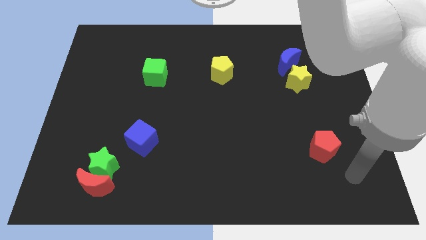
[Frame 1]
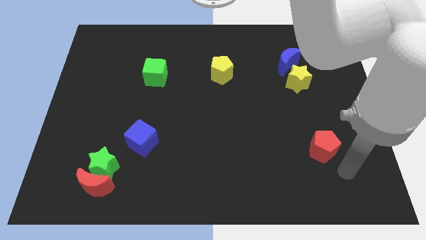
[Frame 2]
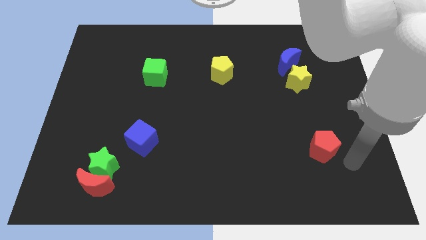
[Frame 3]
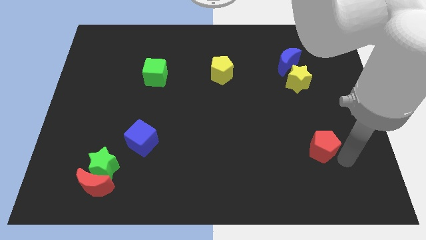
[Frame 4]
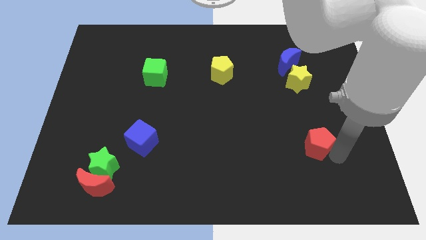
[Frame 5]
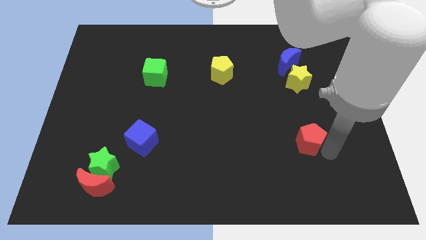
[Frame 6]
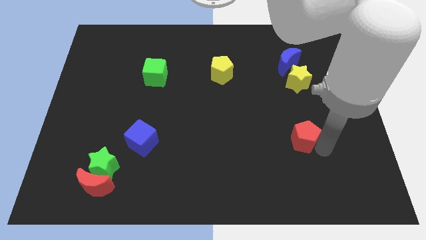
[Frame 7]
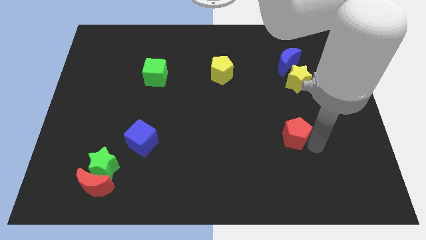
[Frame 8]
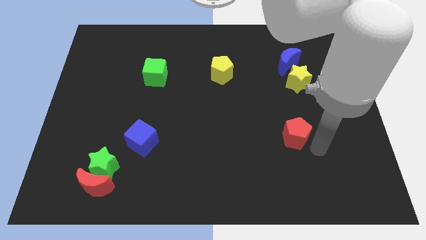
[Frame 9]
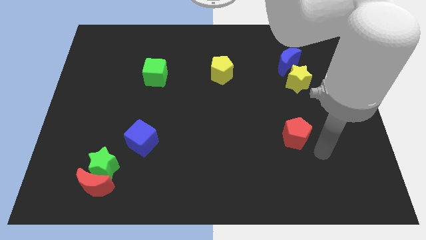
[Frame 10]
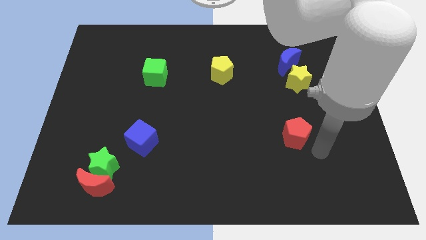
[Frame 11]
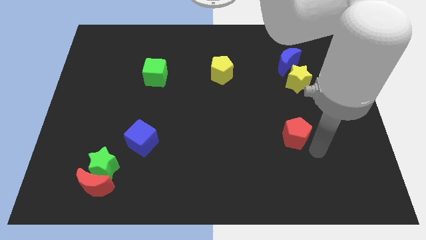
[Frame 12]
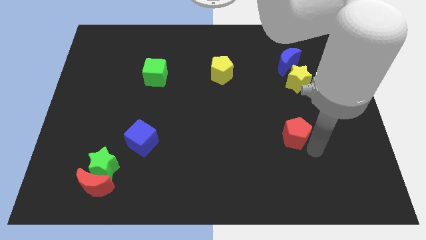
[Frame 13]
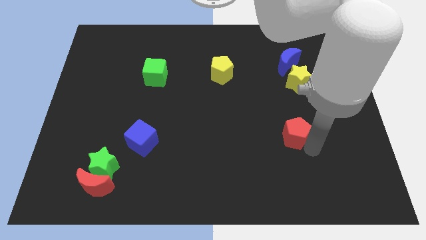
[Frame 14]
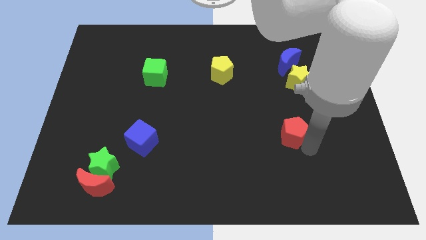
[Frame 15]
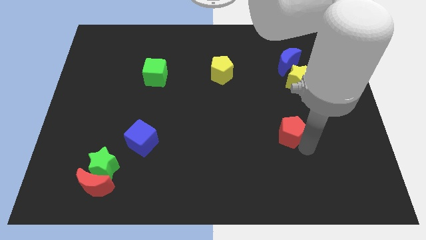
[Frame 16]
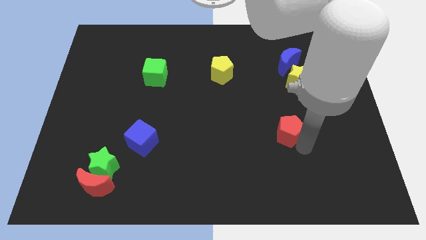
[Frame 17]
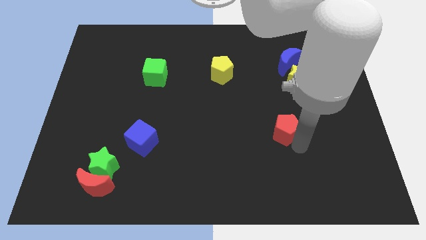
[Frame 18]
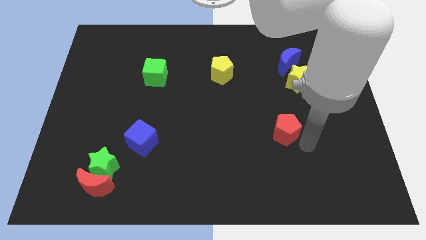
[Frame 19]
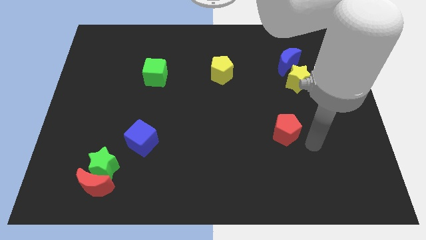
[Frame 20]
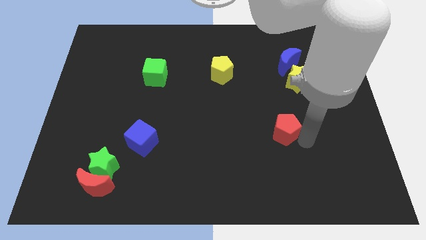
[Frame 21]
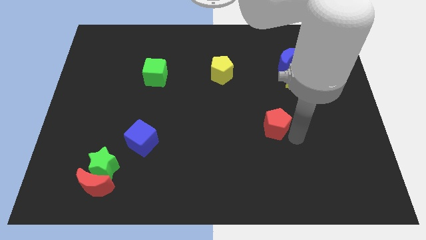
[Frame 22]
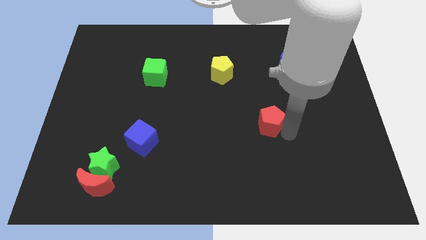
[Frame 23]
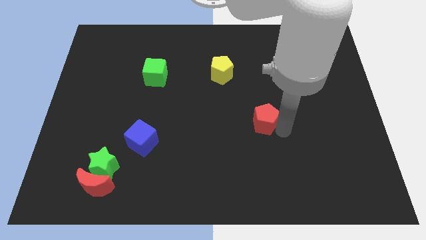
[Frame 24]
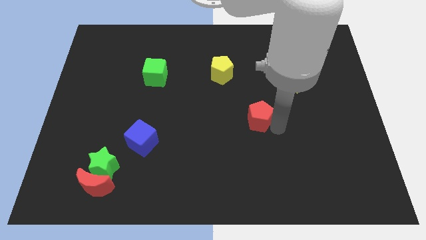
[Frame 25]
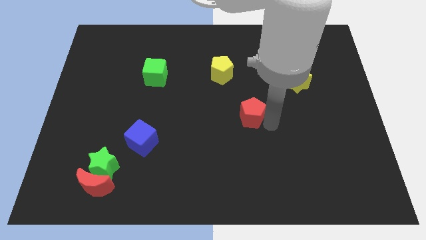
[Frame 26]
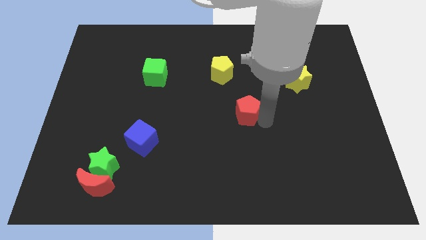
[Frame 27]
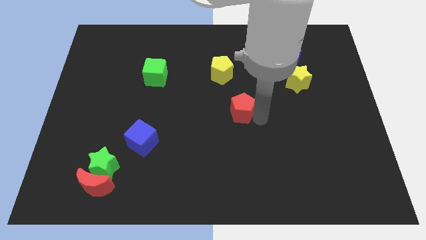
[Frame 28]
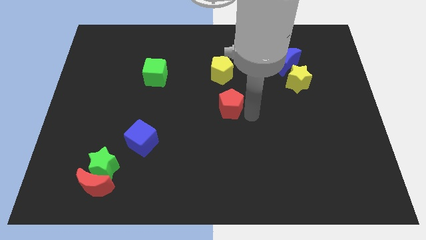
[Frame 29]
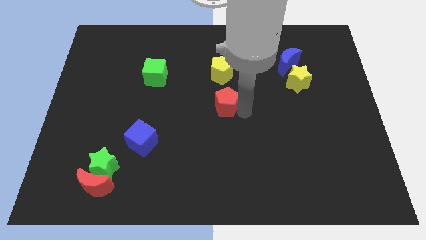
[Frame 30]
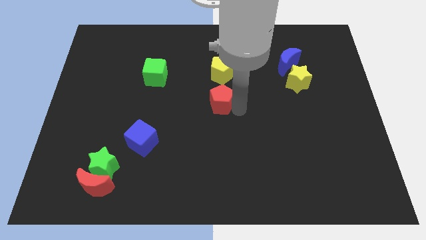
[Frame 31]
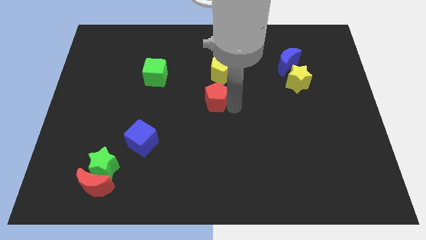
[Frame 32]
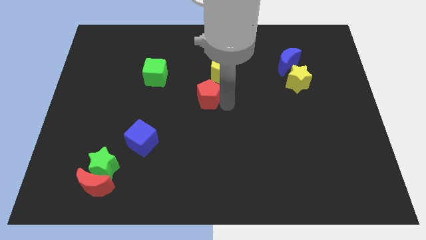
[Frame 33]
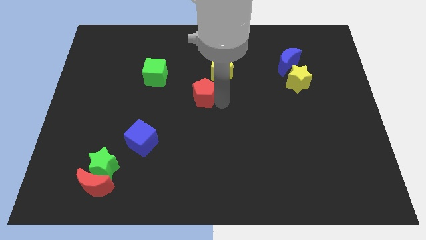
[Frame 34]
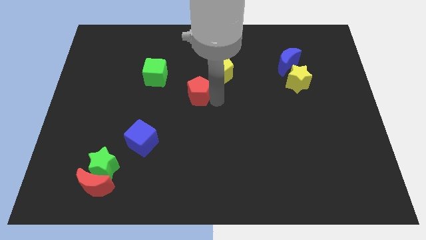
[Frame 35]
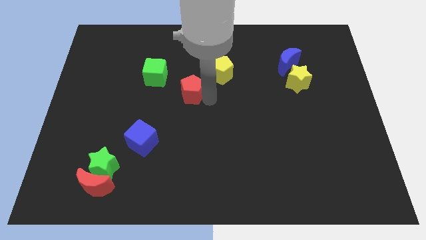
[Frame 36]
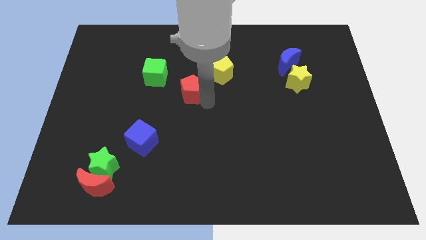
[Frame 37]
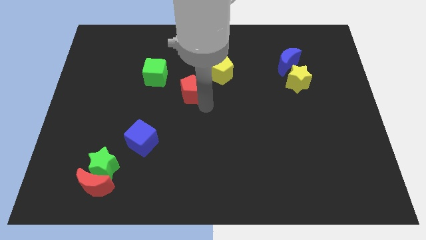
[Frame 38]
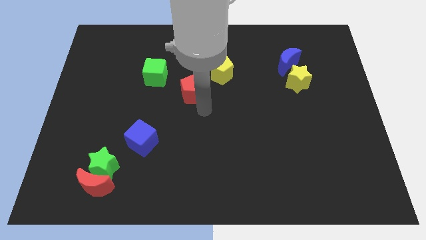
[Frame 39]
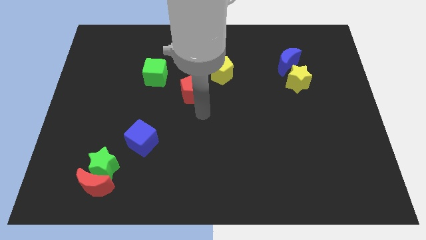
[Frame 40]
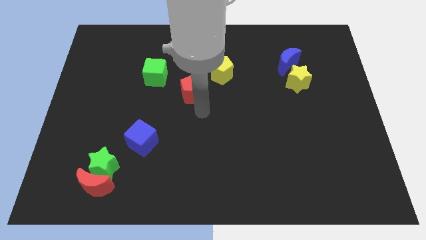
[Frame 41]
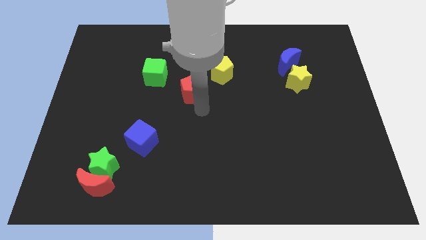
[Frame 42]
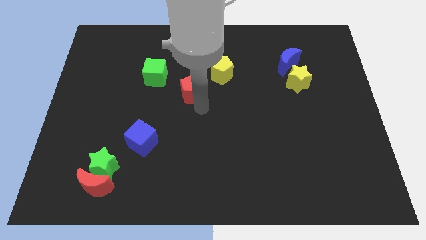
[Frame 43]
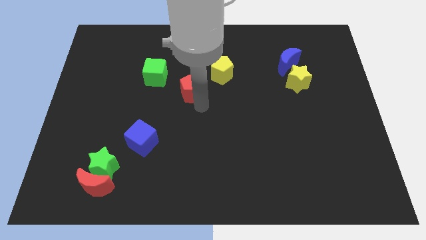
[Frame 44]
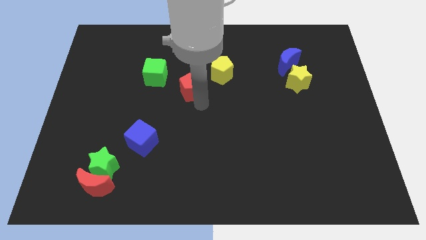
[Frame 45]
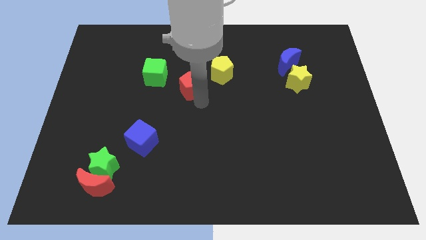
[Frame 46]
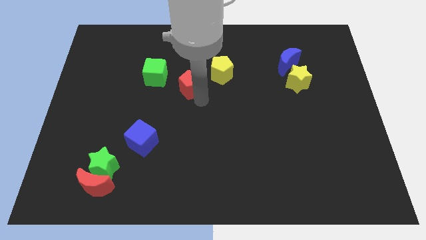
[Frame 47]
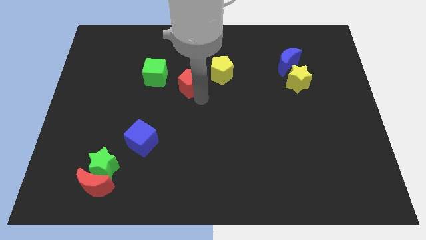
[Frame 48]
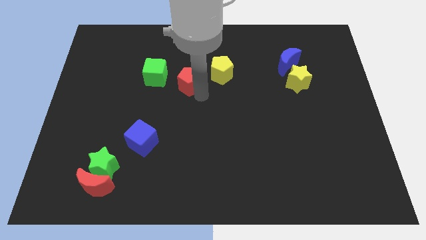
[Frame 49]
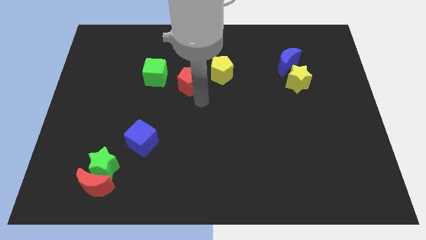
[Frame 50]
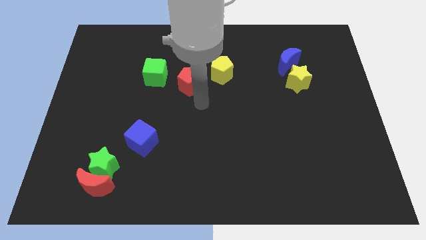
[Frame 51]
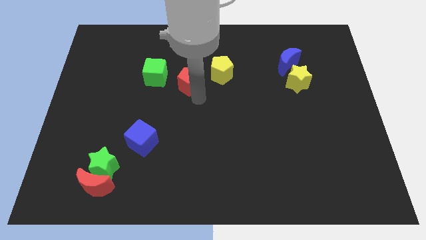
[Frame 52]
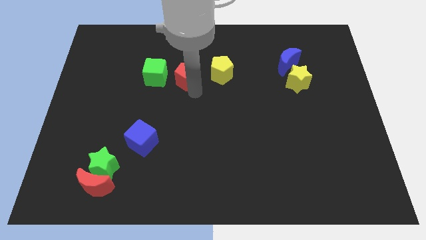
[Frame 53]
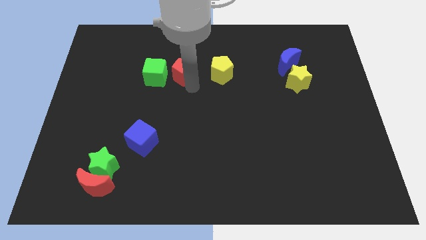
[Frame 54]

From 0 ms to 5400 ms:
push the red pentagon diagonally up and to the right of the green cube

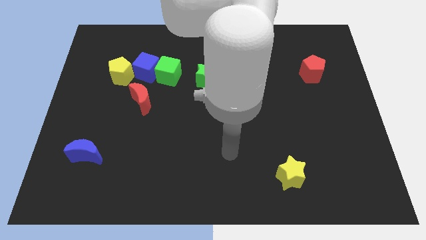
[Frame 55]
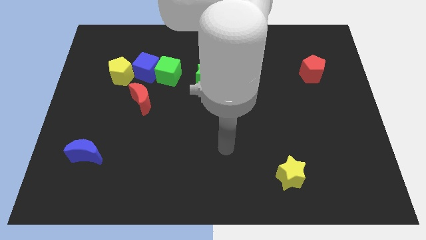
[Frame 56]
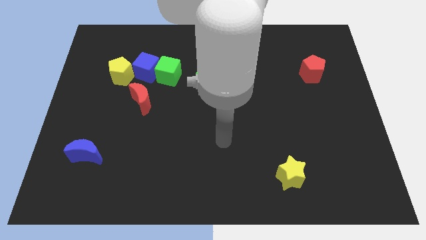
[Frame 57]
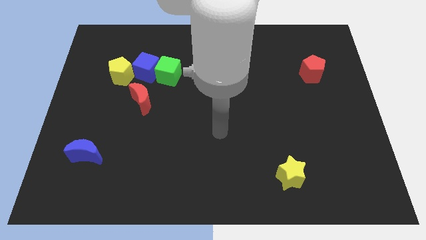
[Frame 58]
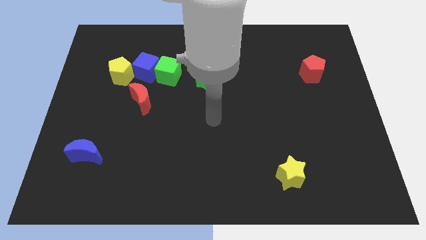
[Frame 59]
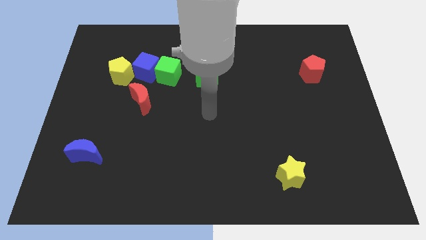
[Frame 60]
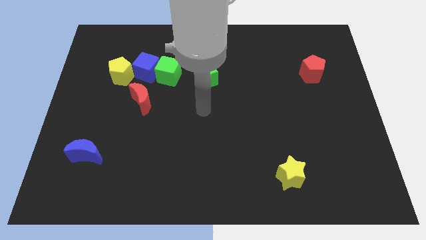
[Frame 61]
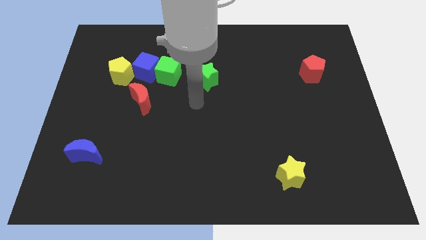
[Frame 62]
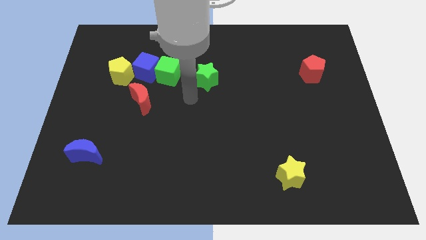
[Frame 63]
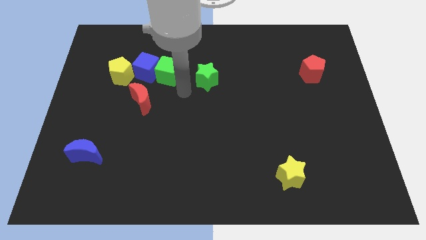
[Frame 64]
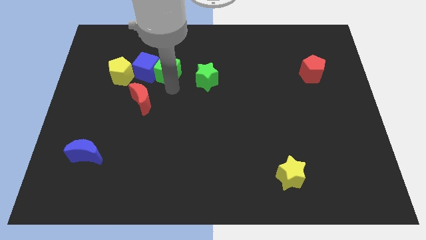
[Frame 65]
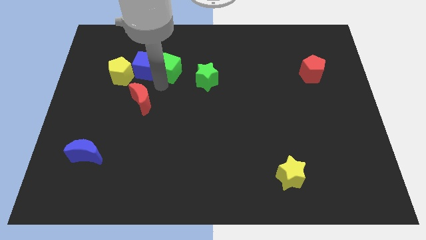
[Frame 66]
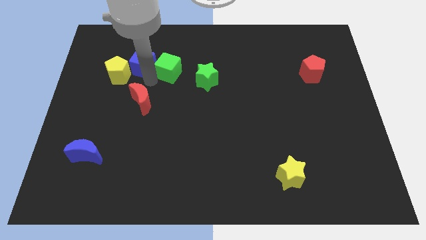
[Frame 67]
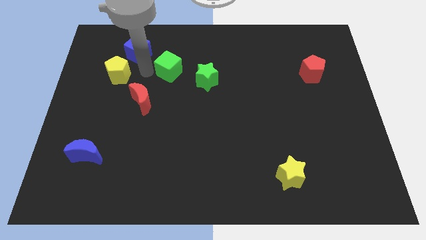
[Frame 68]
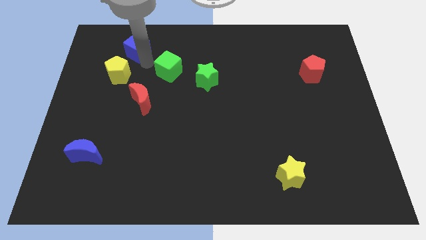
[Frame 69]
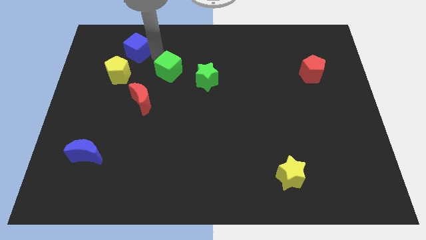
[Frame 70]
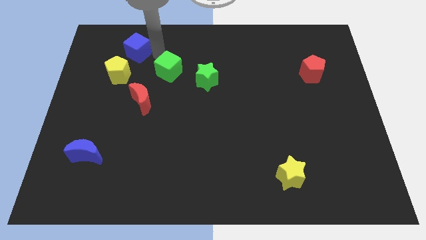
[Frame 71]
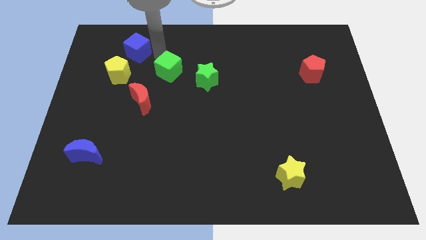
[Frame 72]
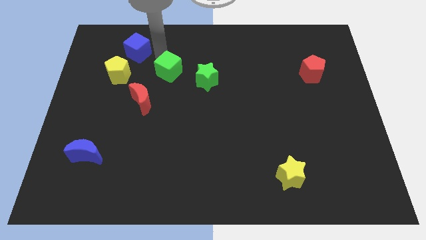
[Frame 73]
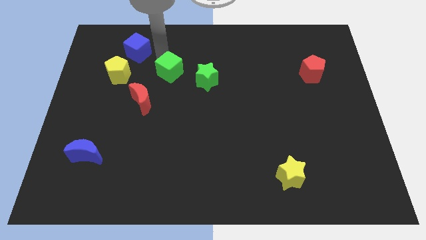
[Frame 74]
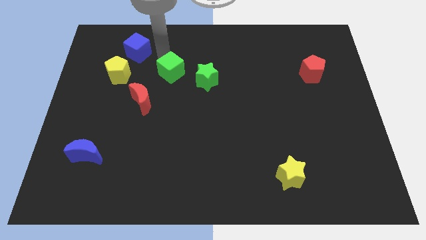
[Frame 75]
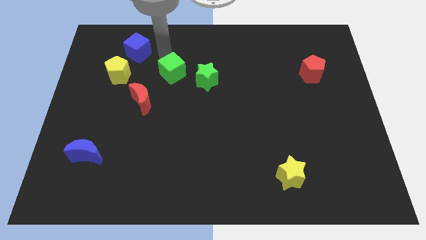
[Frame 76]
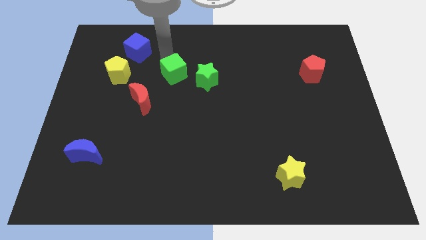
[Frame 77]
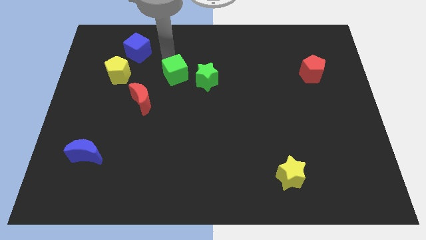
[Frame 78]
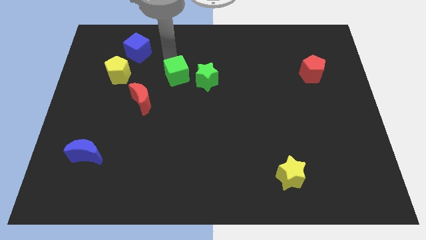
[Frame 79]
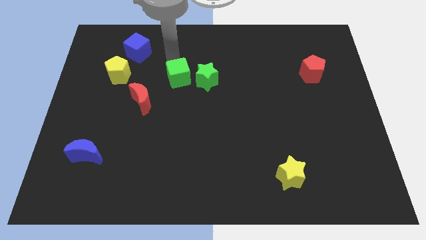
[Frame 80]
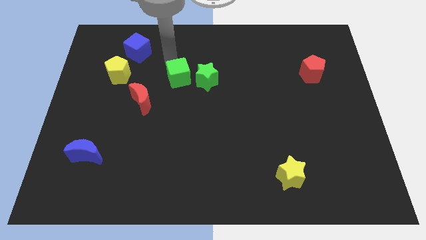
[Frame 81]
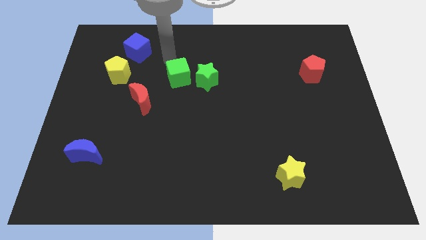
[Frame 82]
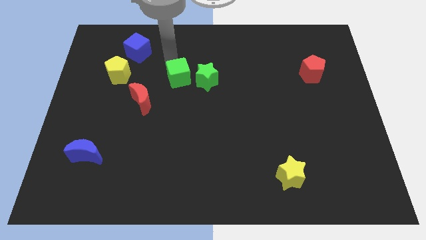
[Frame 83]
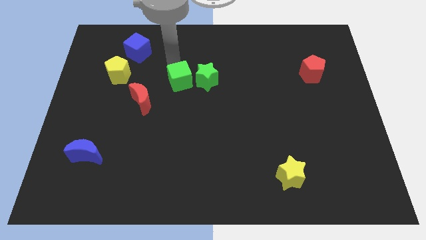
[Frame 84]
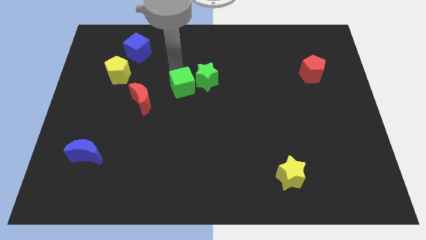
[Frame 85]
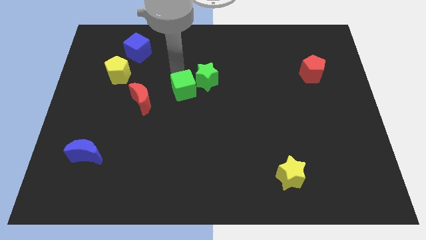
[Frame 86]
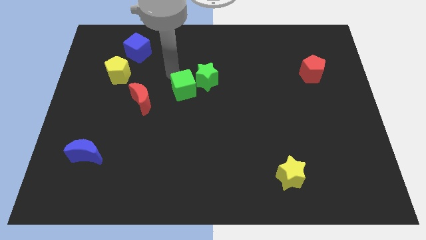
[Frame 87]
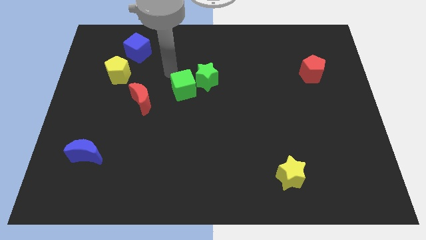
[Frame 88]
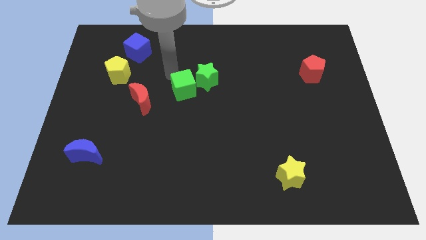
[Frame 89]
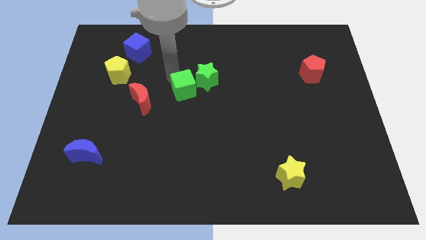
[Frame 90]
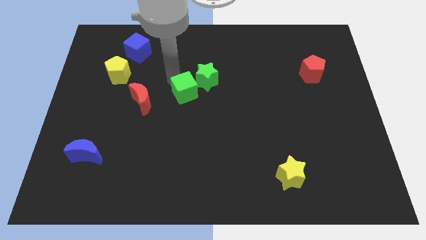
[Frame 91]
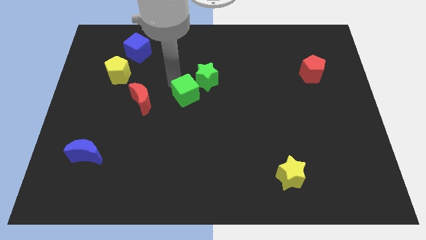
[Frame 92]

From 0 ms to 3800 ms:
move the green cube to the bottom of the green star
